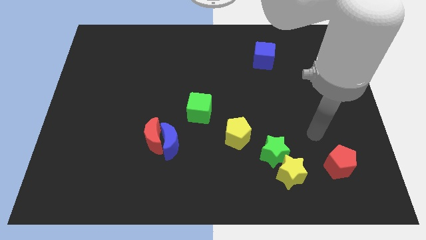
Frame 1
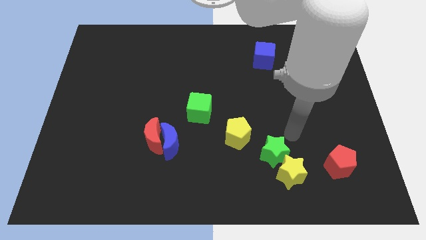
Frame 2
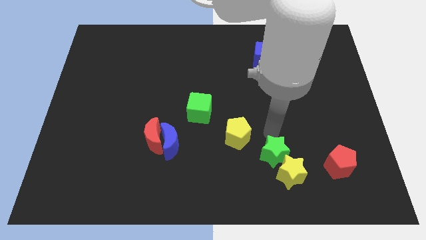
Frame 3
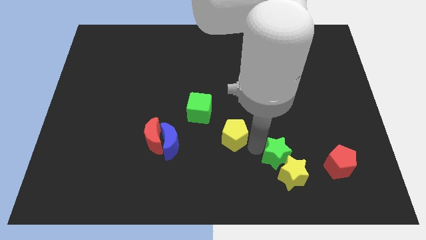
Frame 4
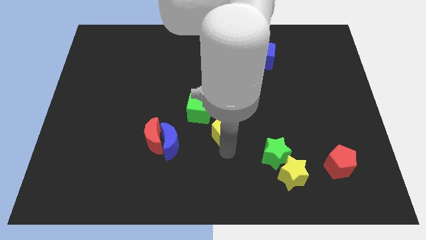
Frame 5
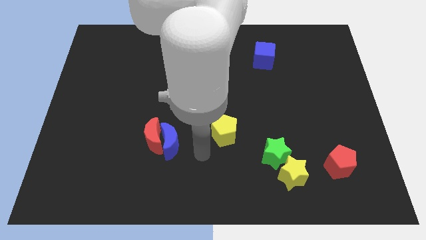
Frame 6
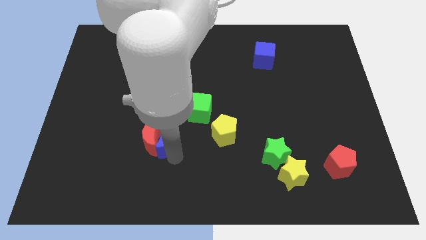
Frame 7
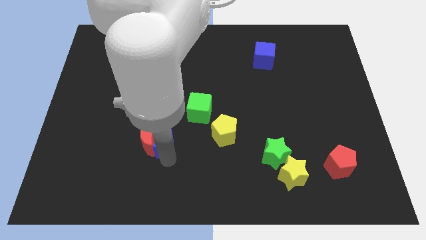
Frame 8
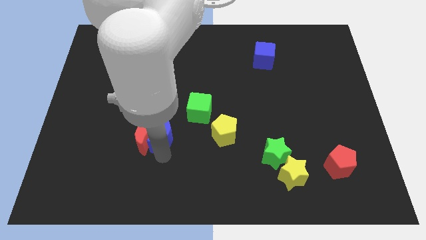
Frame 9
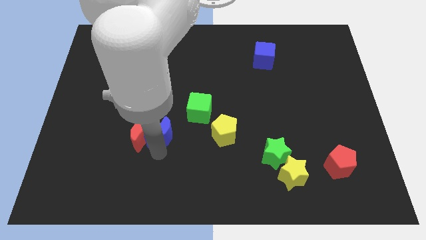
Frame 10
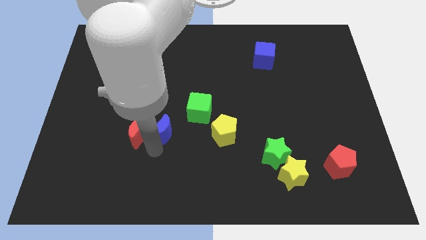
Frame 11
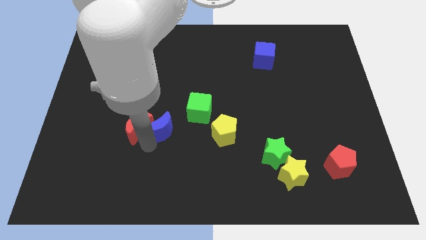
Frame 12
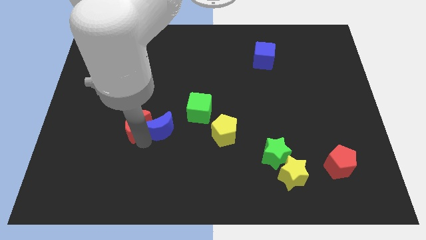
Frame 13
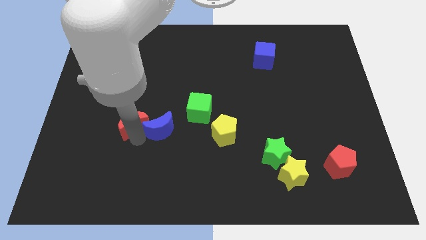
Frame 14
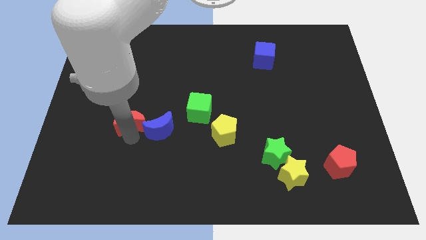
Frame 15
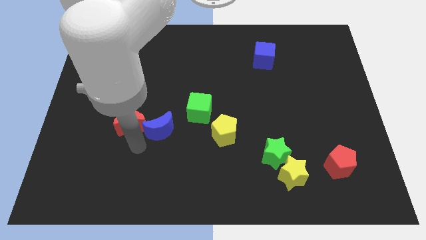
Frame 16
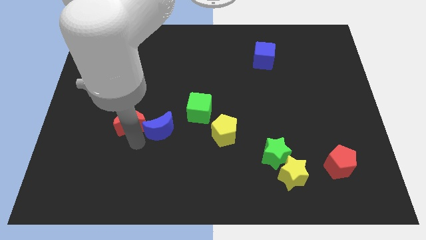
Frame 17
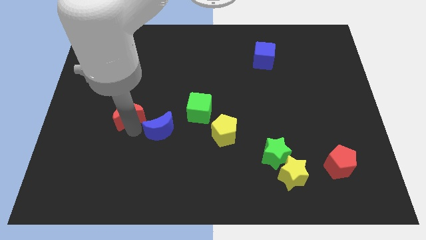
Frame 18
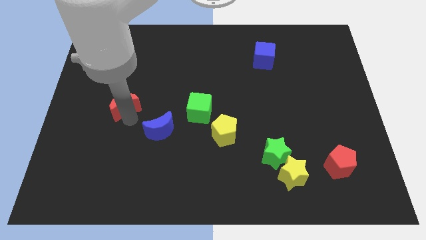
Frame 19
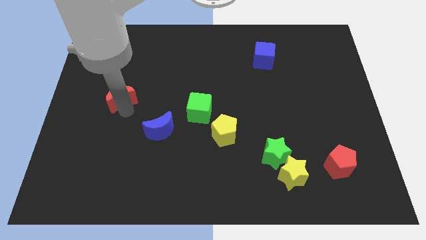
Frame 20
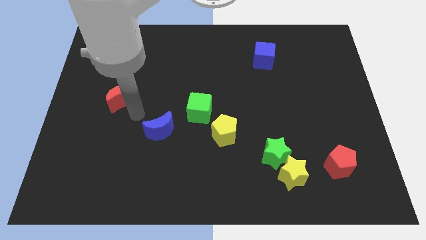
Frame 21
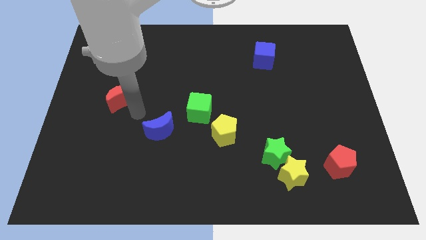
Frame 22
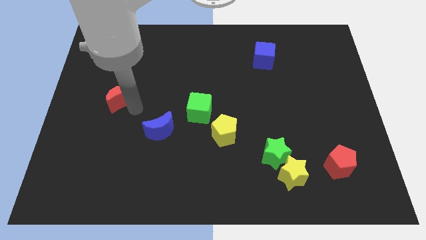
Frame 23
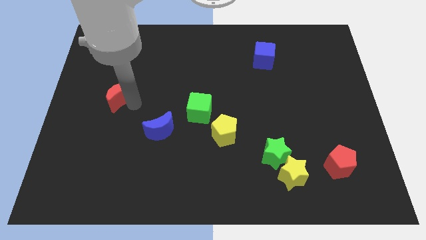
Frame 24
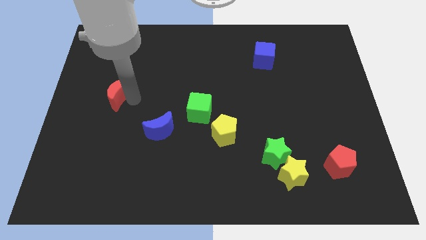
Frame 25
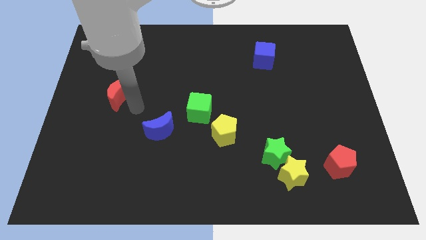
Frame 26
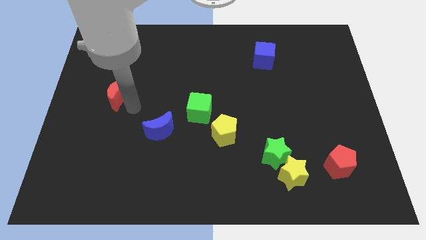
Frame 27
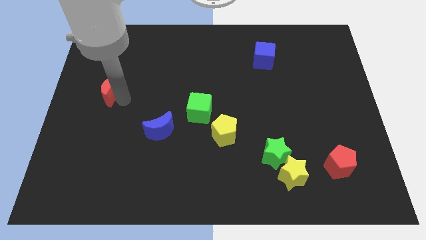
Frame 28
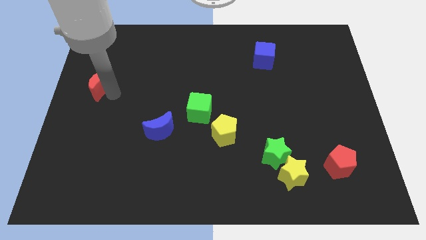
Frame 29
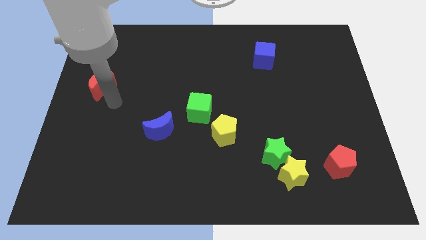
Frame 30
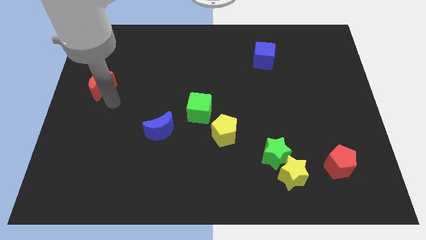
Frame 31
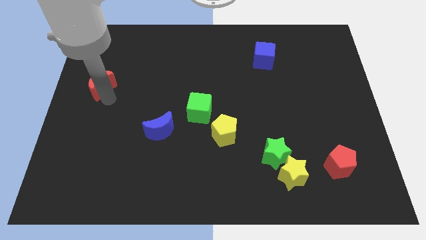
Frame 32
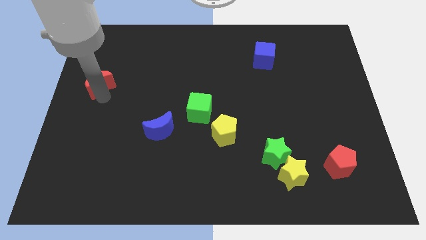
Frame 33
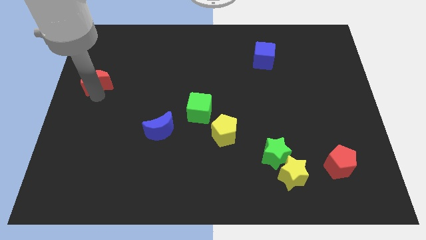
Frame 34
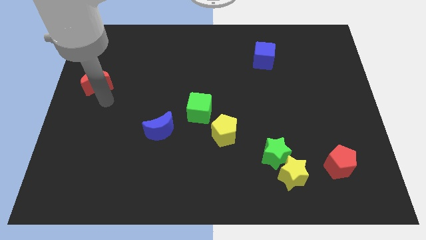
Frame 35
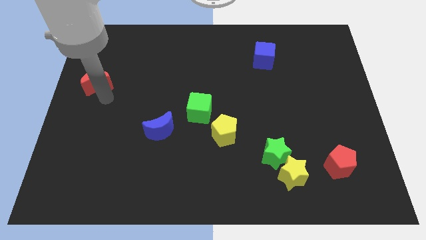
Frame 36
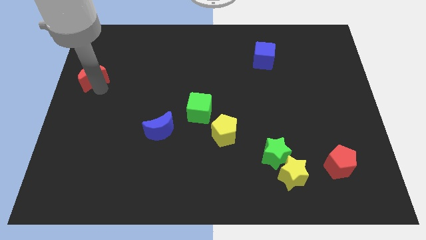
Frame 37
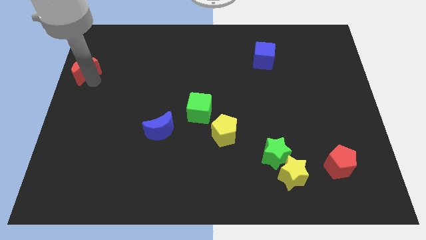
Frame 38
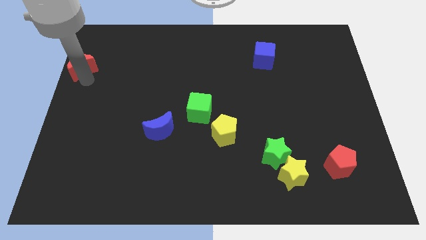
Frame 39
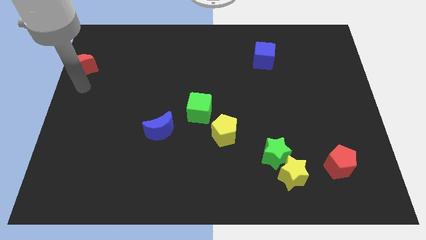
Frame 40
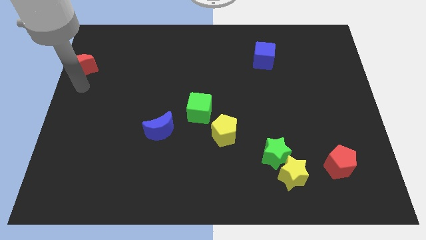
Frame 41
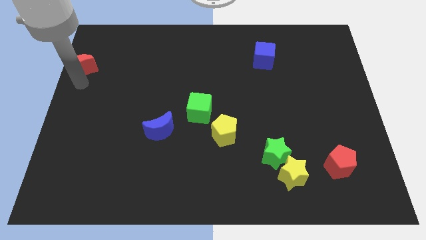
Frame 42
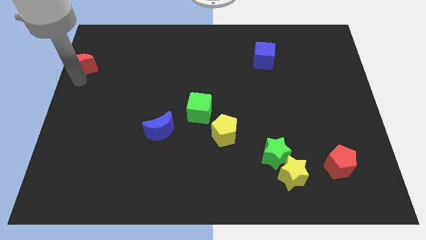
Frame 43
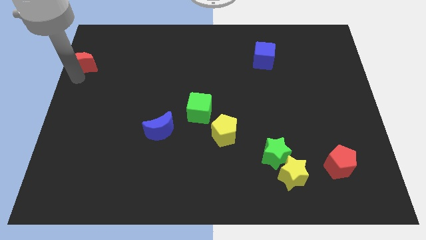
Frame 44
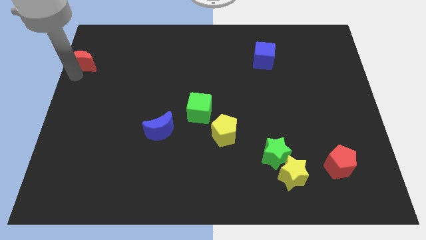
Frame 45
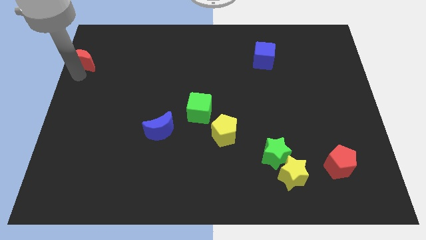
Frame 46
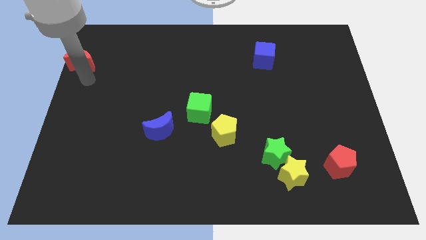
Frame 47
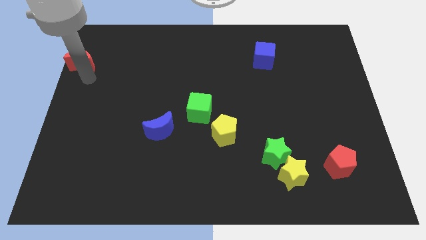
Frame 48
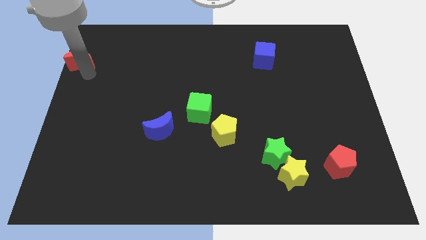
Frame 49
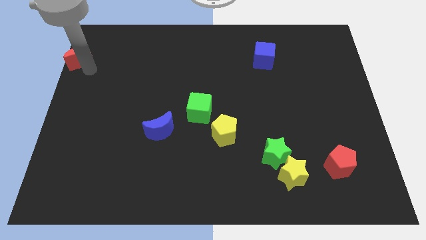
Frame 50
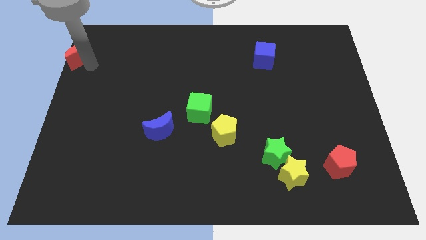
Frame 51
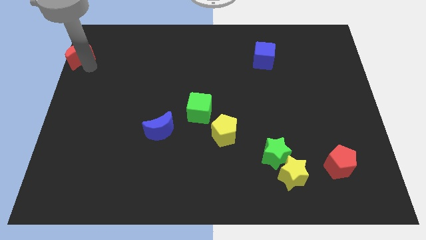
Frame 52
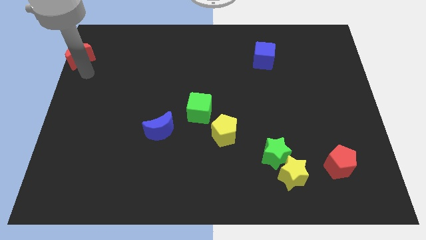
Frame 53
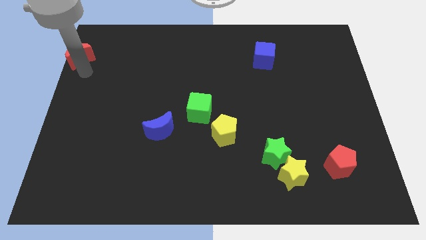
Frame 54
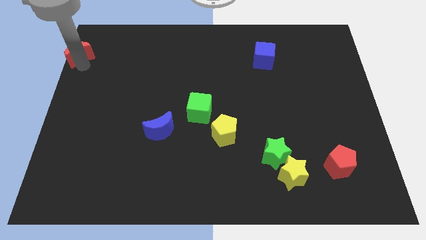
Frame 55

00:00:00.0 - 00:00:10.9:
move the red moon to the top left corner

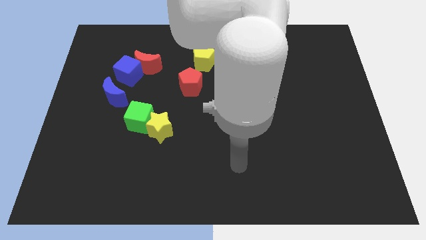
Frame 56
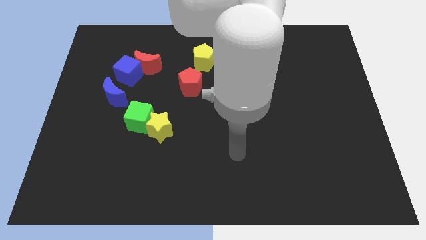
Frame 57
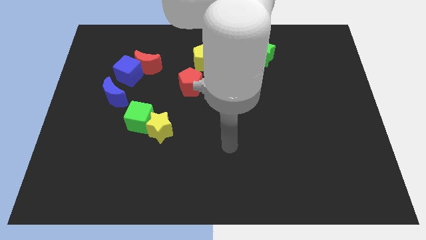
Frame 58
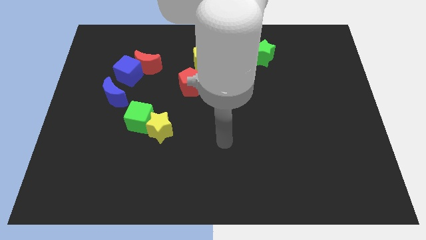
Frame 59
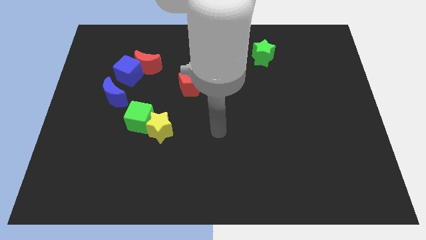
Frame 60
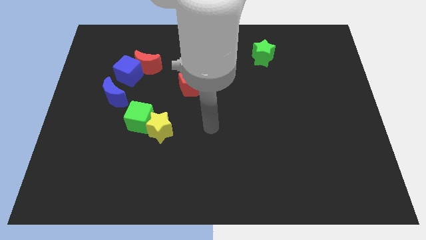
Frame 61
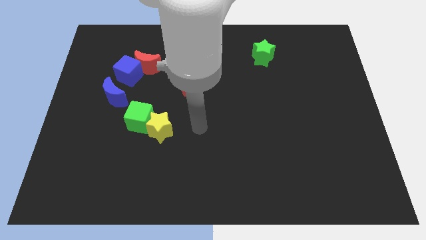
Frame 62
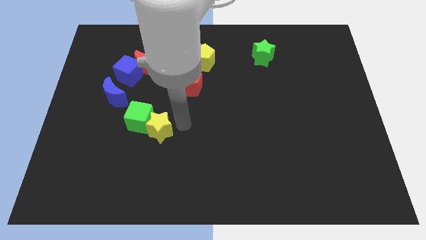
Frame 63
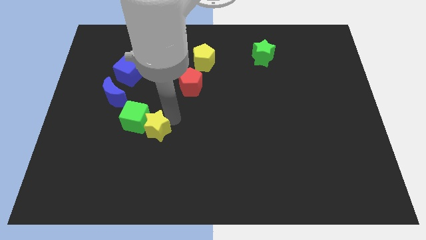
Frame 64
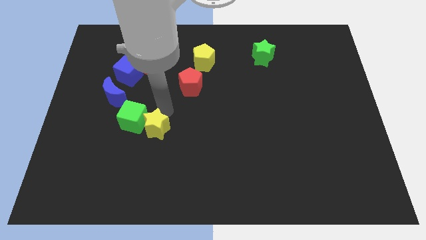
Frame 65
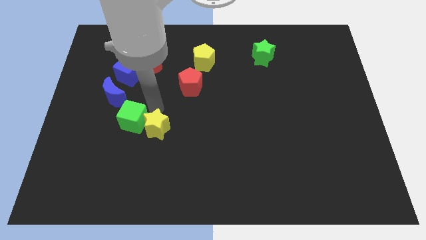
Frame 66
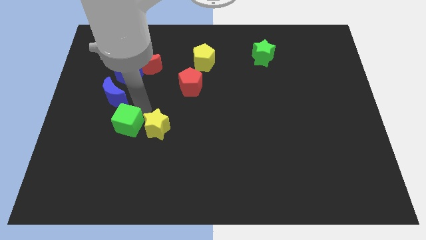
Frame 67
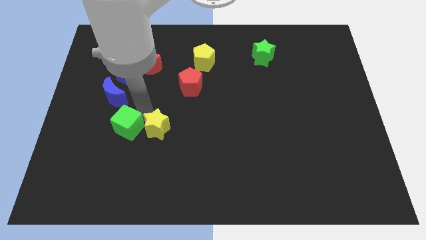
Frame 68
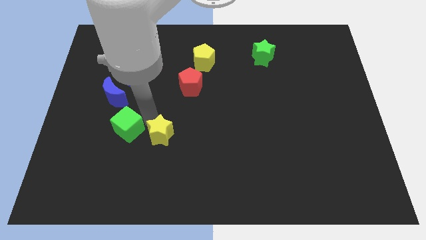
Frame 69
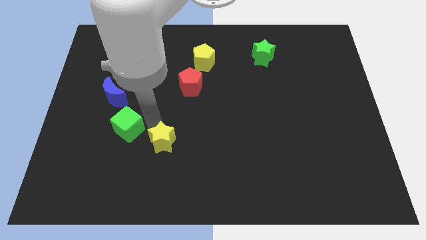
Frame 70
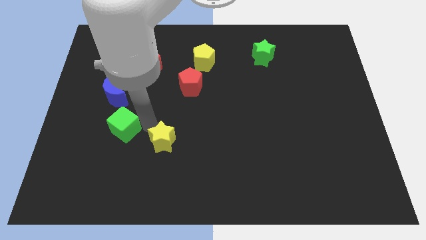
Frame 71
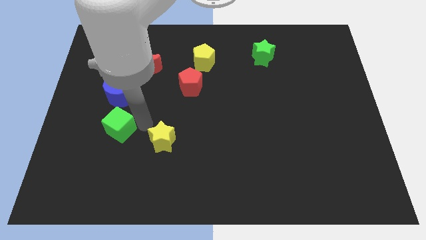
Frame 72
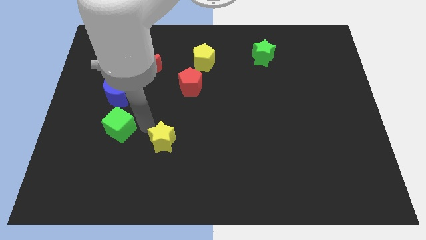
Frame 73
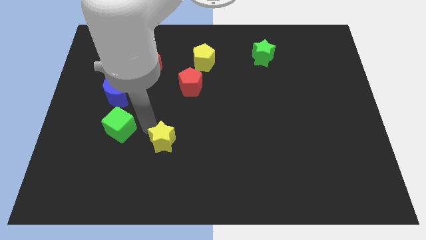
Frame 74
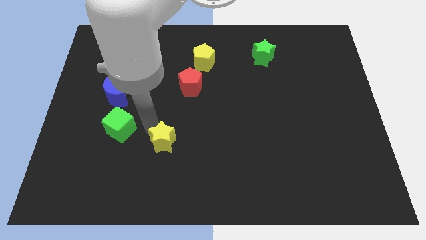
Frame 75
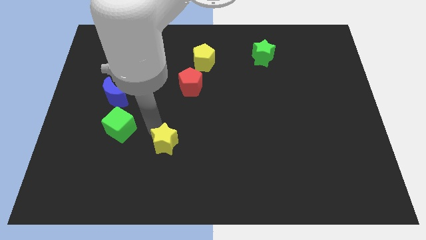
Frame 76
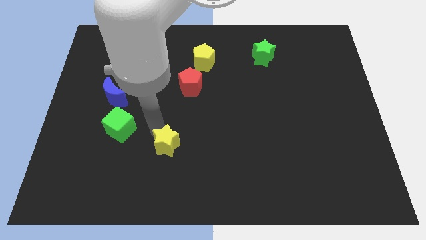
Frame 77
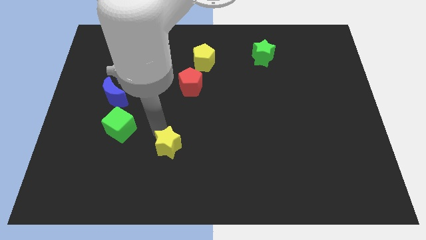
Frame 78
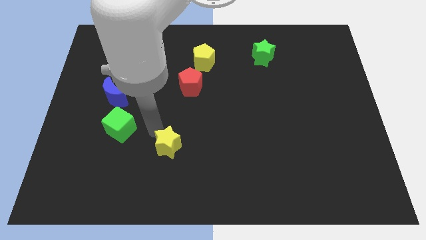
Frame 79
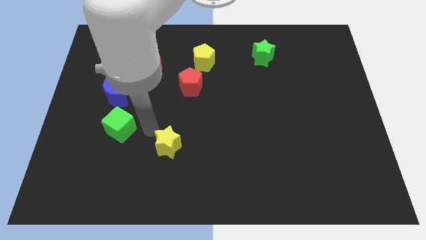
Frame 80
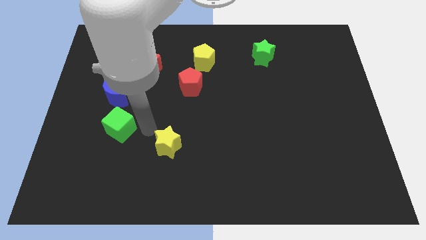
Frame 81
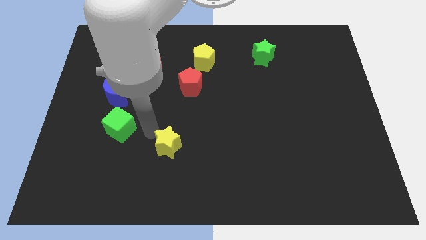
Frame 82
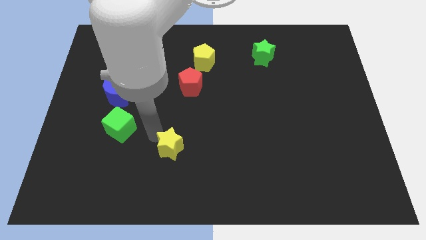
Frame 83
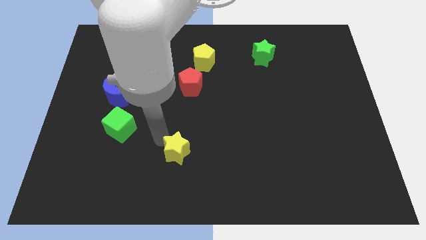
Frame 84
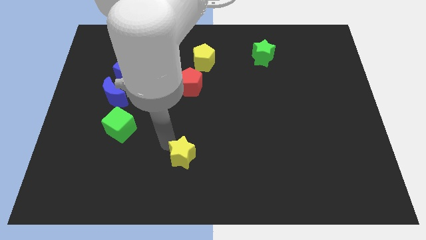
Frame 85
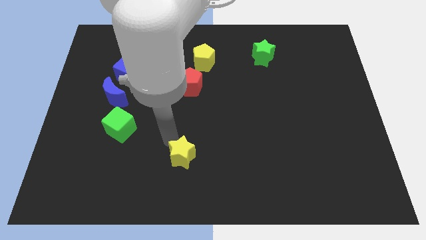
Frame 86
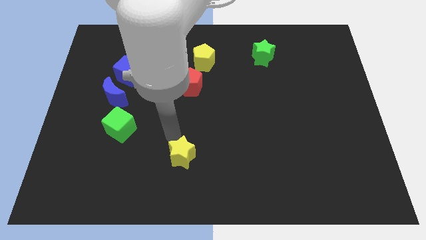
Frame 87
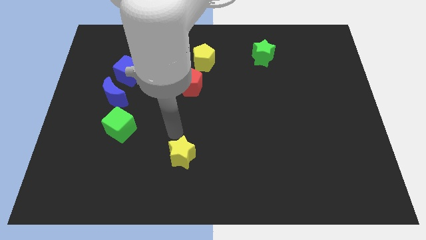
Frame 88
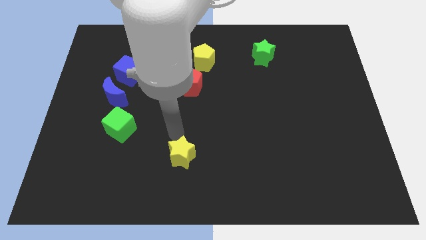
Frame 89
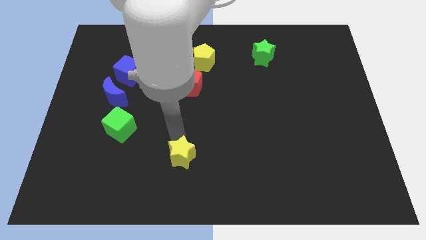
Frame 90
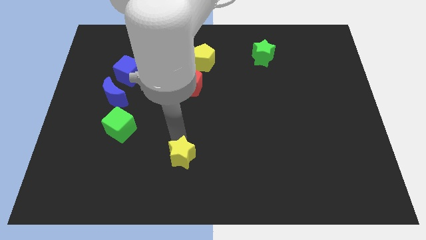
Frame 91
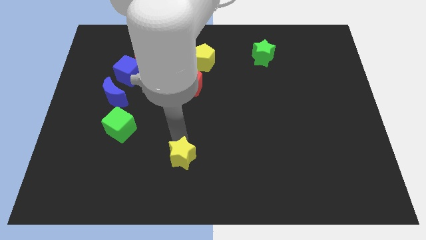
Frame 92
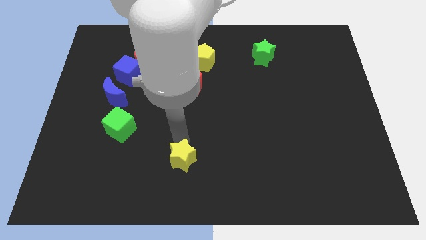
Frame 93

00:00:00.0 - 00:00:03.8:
put the yellow star to the bottom side
